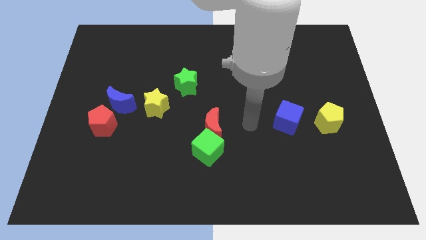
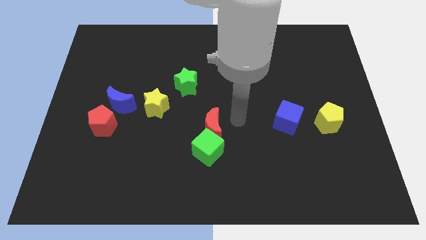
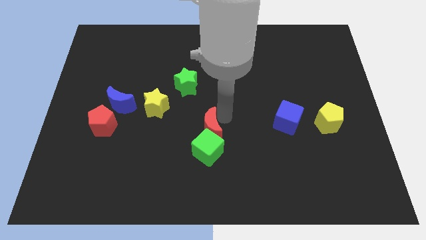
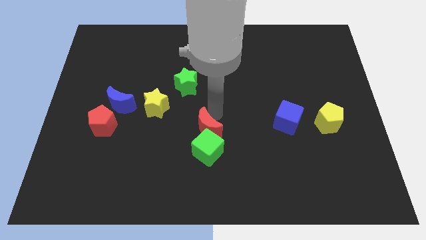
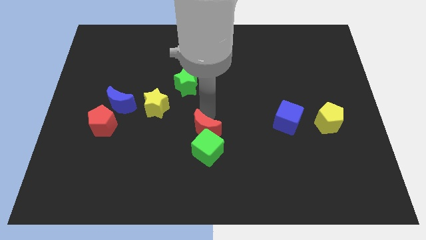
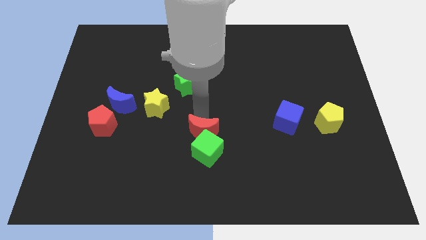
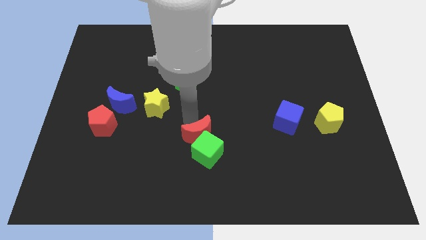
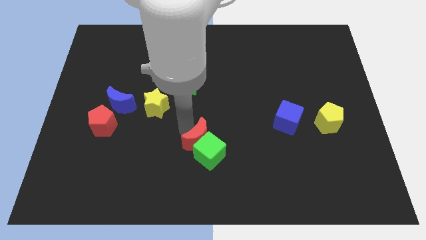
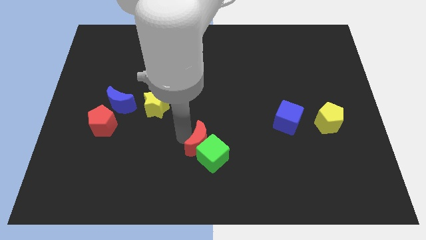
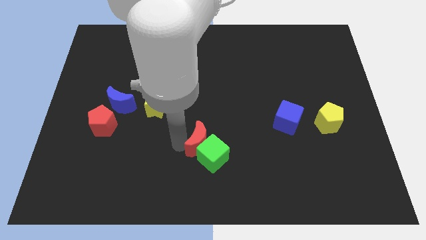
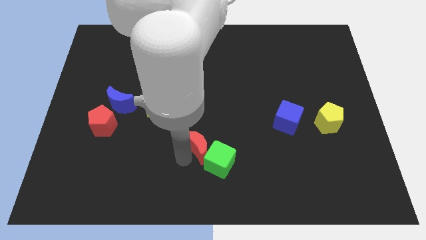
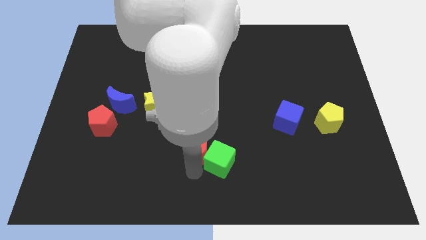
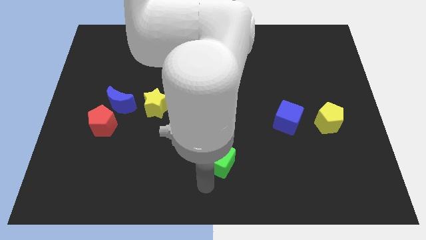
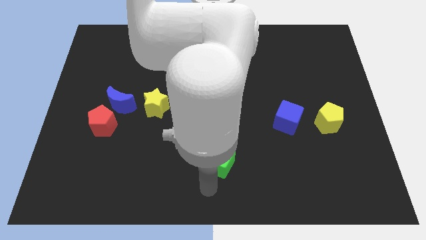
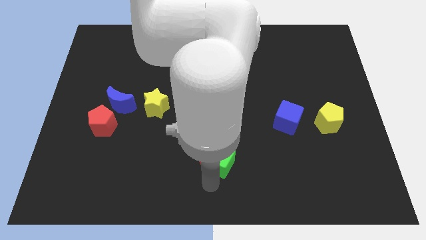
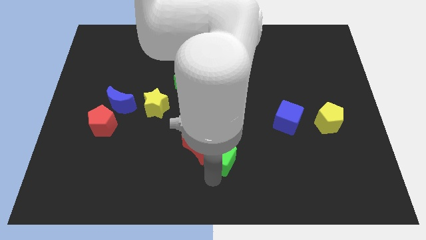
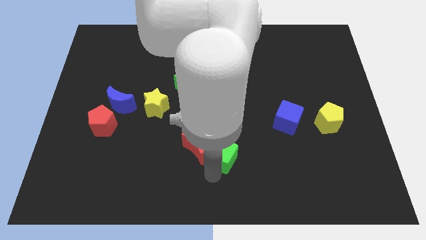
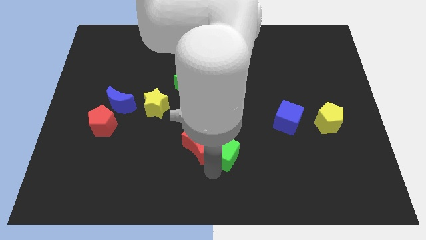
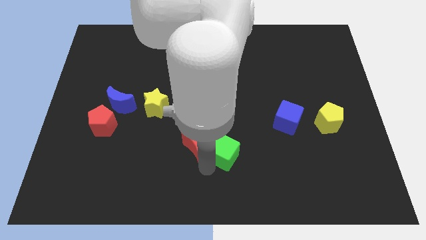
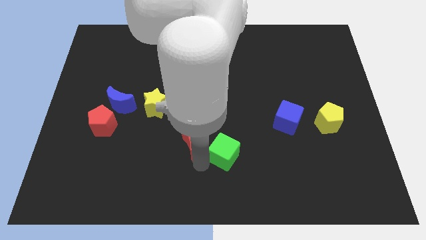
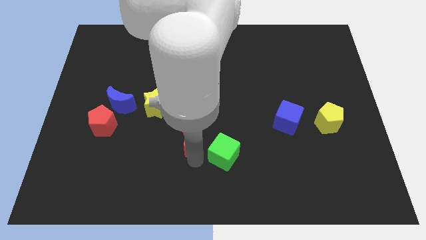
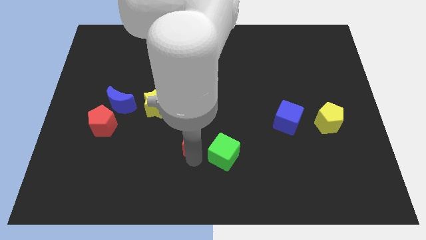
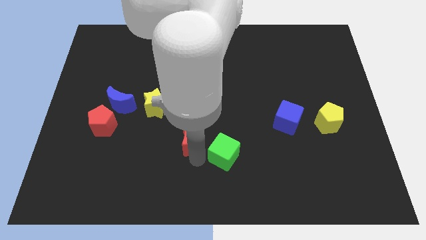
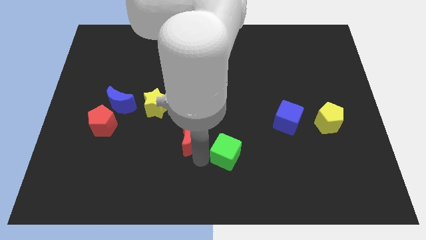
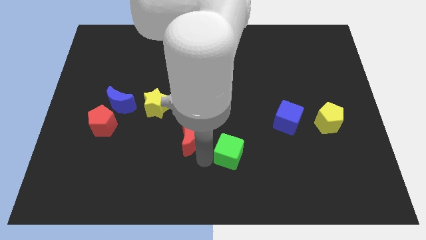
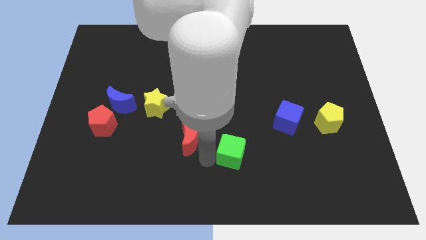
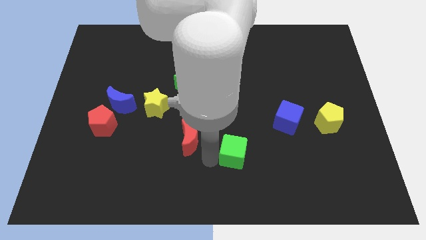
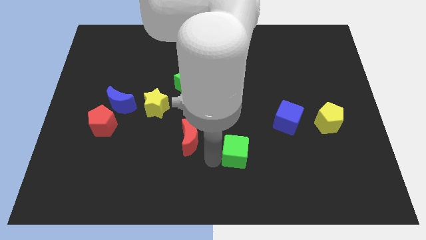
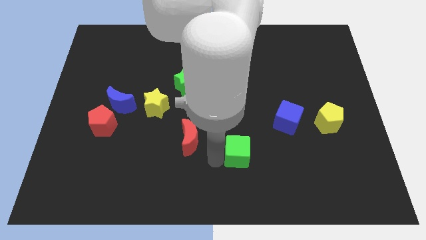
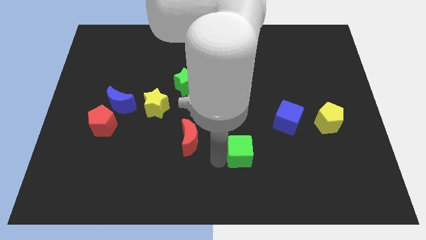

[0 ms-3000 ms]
slightly slide the green cube to the right

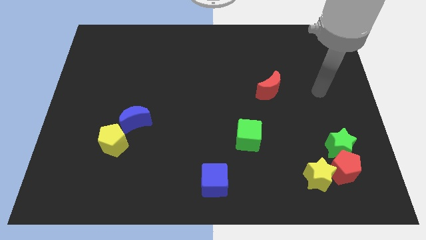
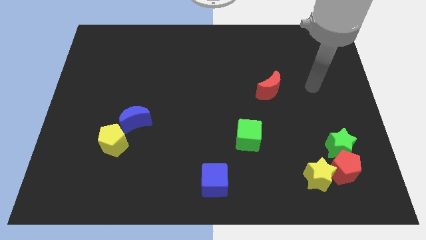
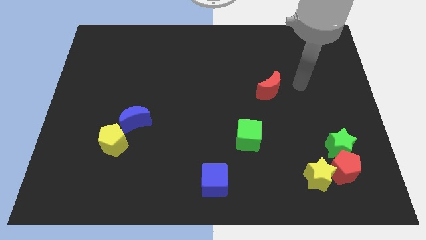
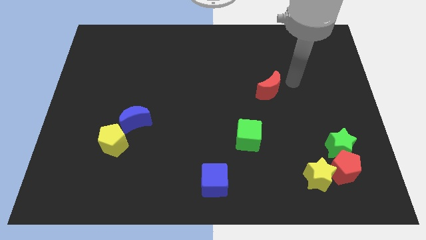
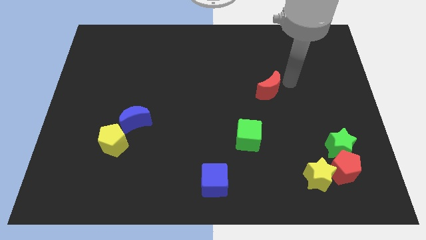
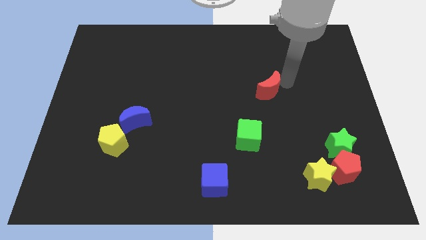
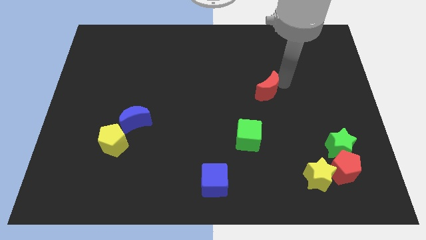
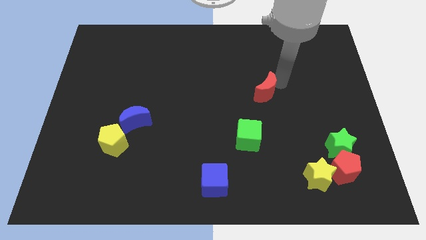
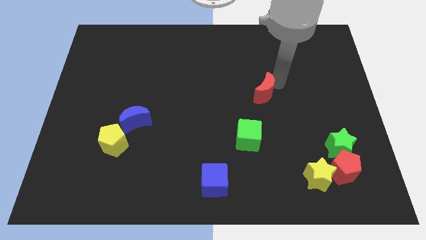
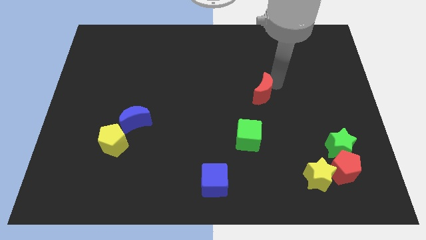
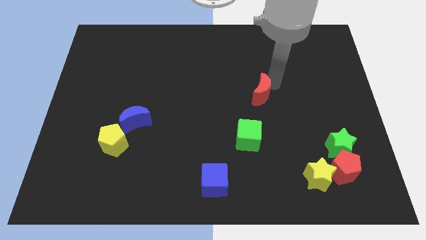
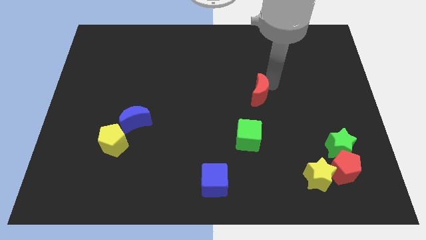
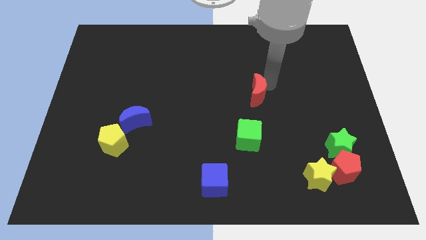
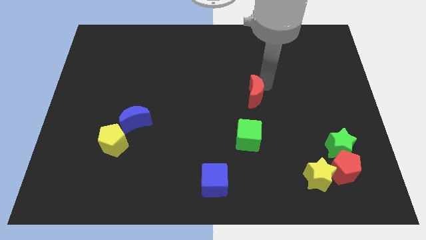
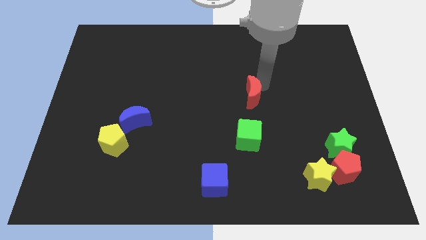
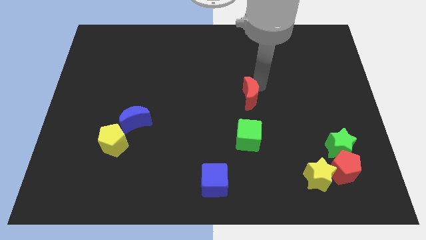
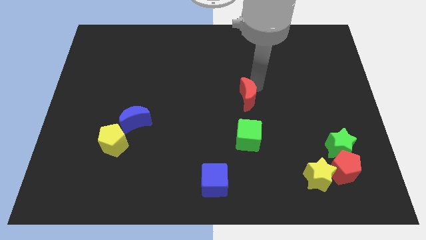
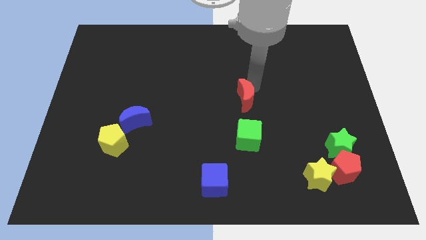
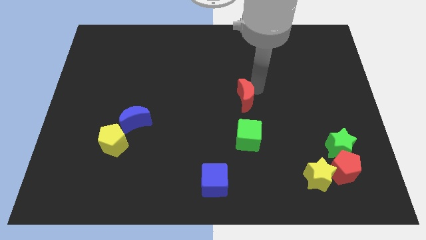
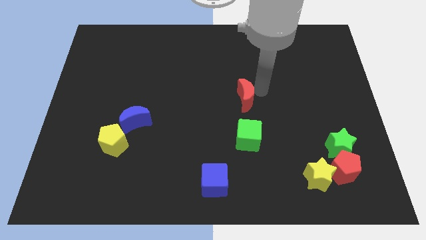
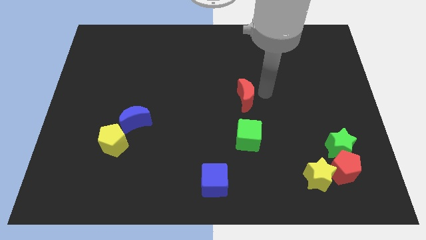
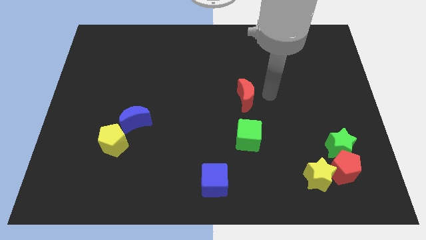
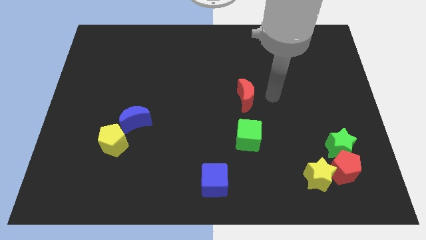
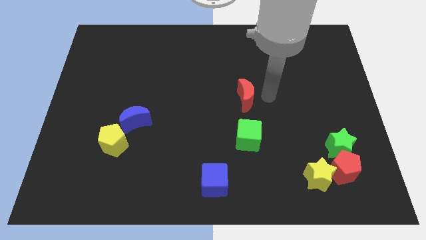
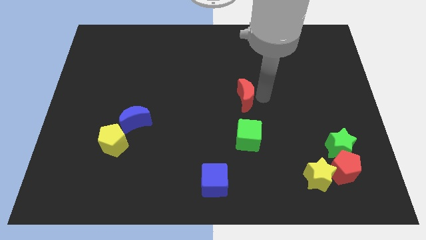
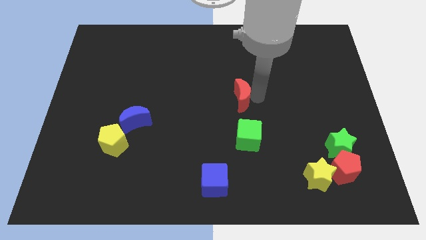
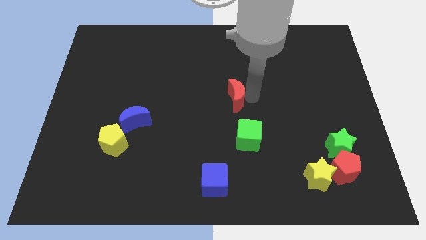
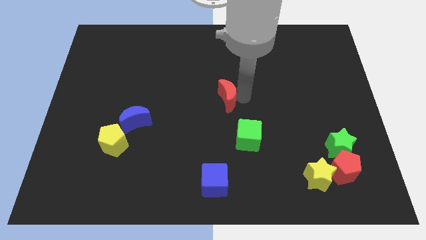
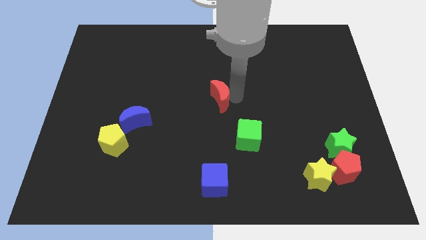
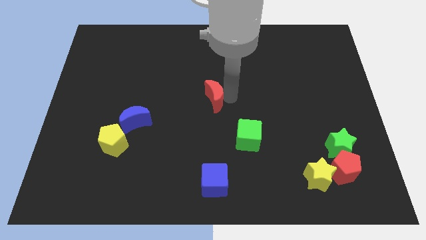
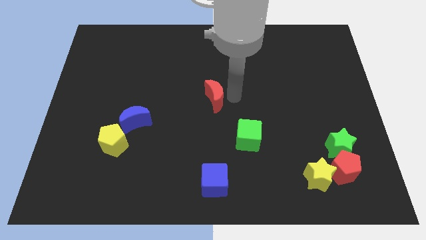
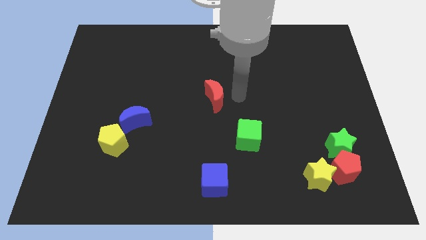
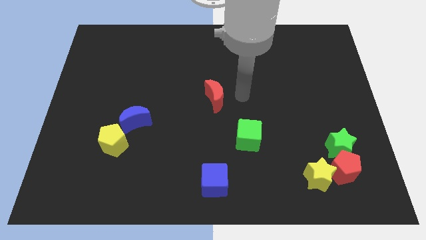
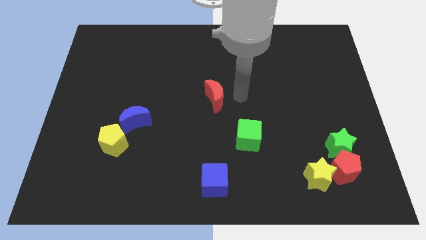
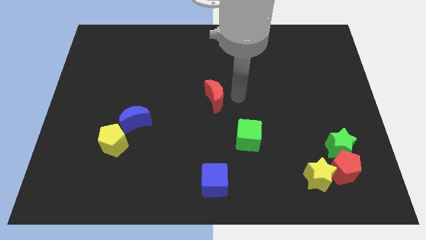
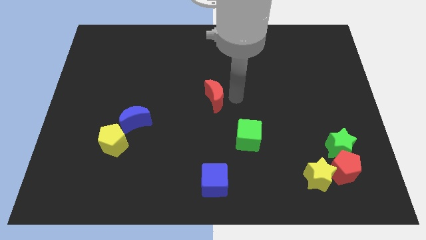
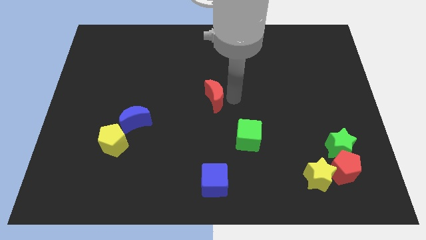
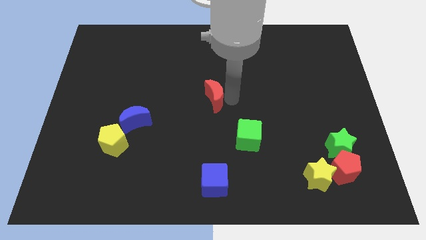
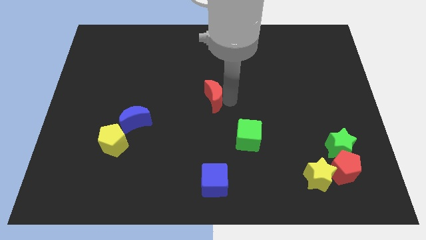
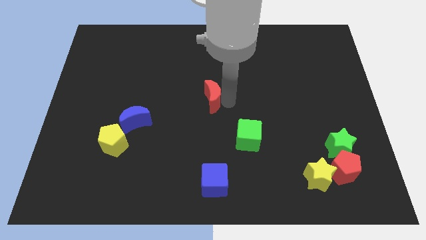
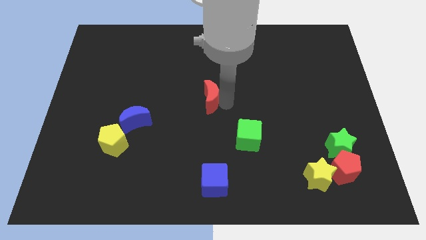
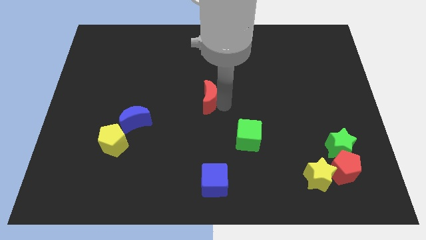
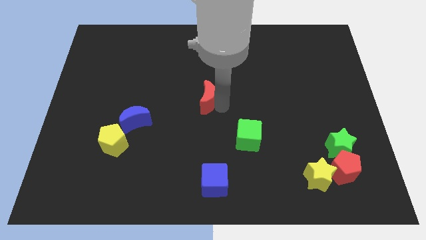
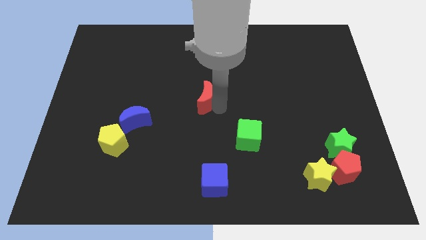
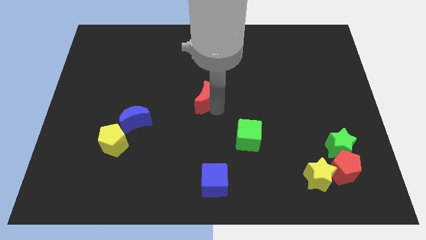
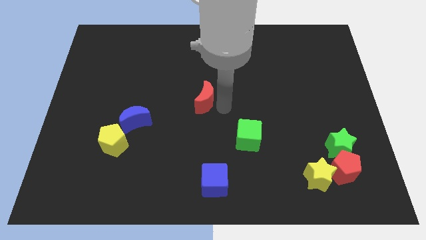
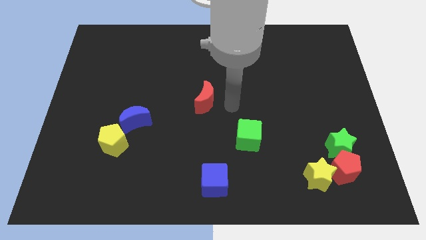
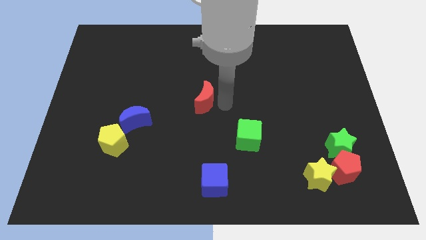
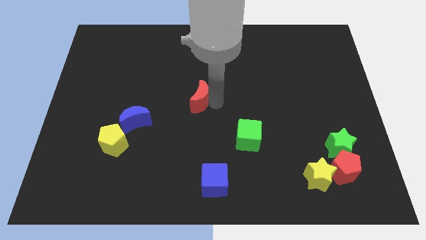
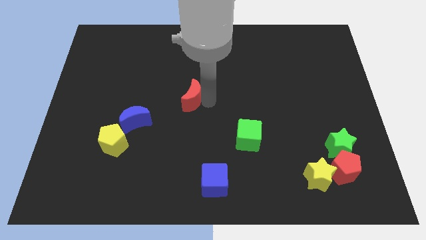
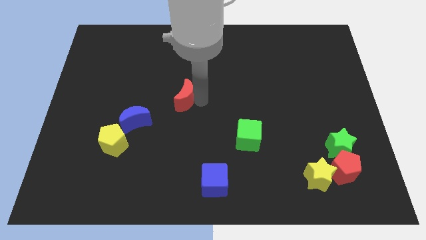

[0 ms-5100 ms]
push the red moon to the left
